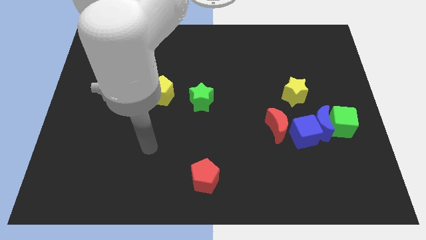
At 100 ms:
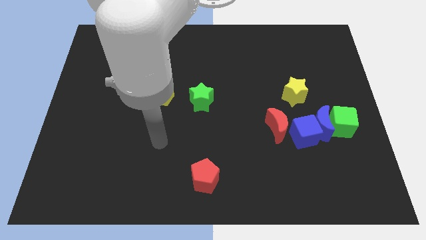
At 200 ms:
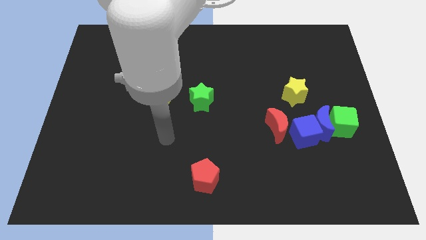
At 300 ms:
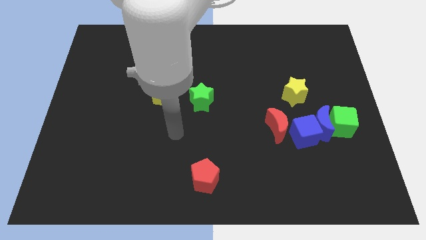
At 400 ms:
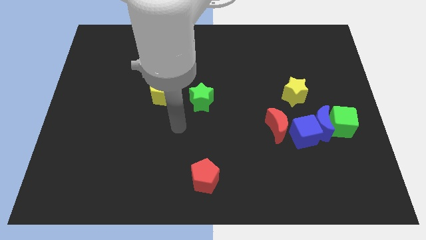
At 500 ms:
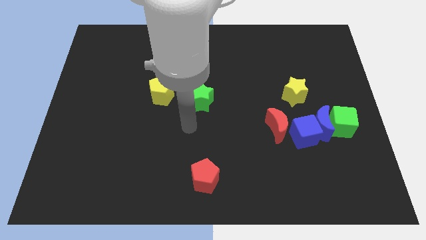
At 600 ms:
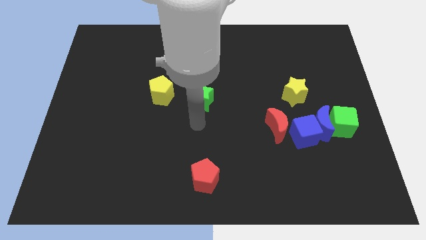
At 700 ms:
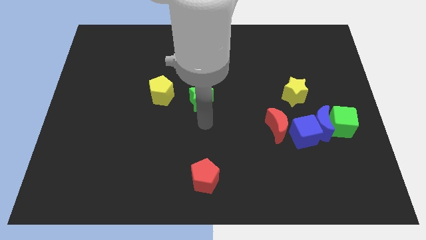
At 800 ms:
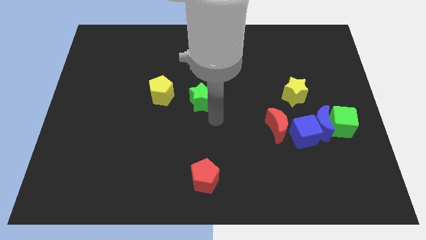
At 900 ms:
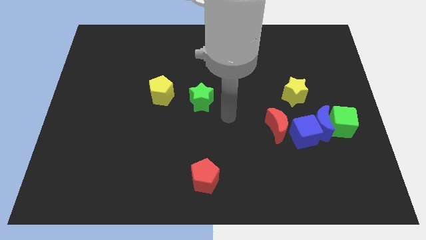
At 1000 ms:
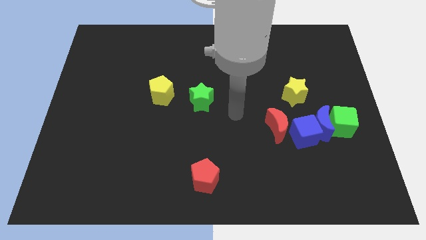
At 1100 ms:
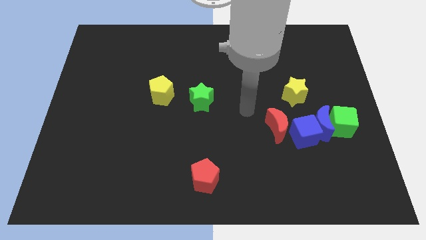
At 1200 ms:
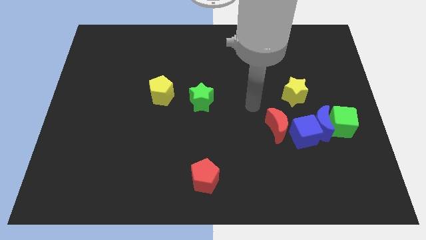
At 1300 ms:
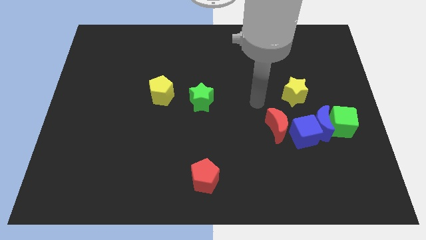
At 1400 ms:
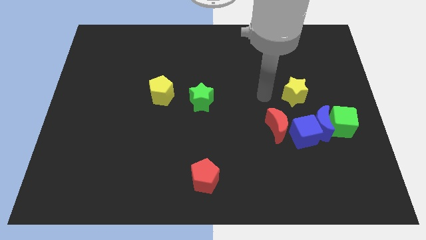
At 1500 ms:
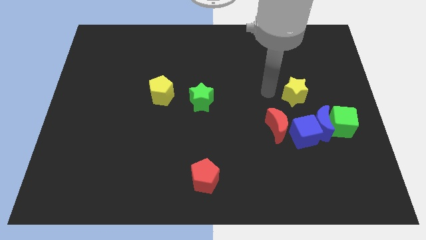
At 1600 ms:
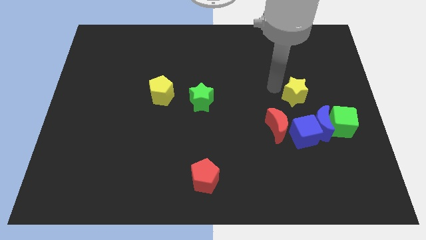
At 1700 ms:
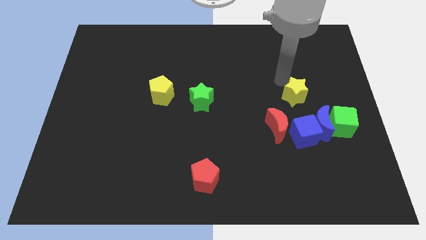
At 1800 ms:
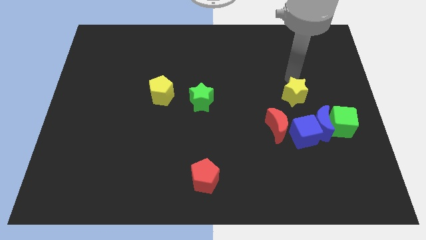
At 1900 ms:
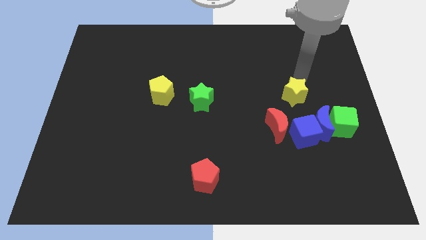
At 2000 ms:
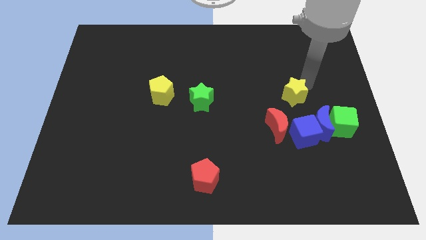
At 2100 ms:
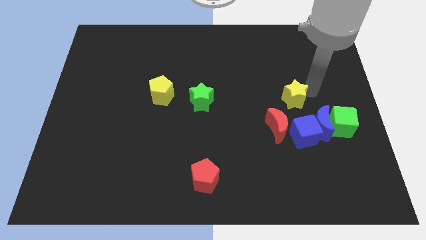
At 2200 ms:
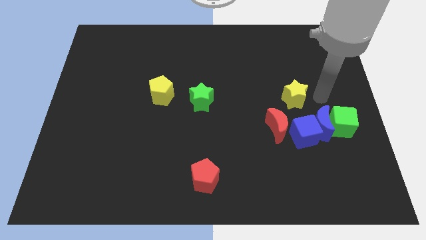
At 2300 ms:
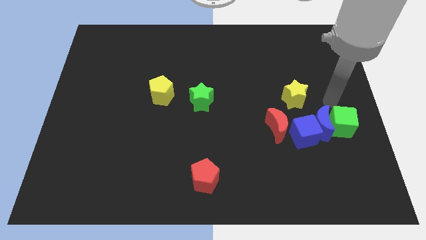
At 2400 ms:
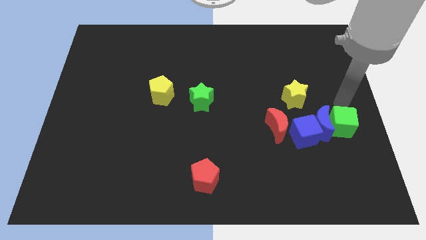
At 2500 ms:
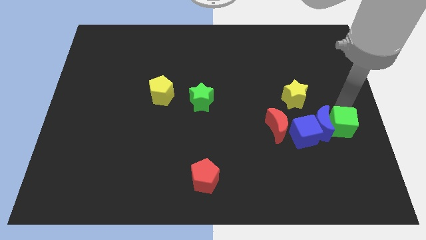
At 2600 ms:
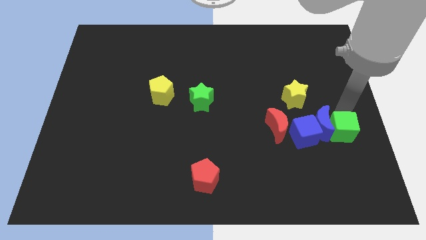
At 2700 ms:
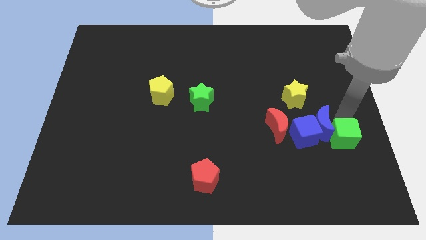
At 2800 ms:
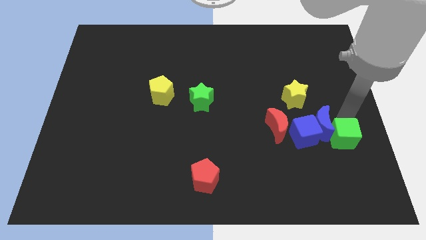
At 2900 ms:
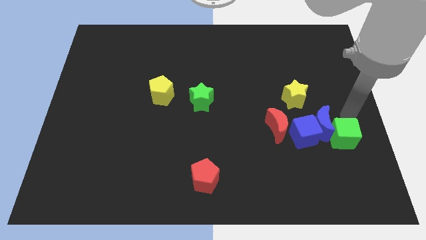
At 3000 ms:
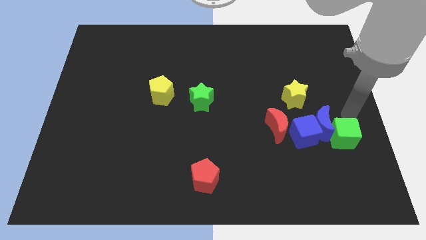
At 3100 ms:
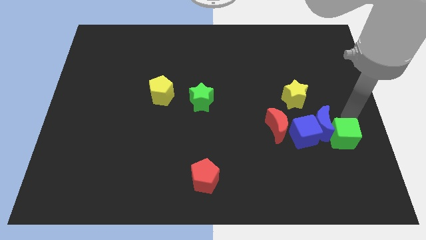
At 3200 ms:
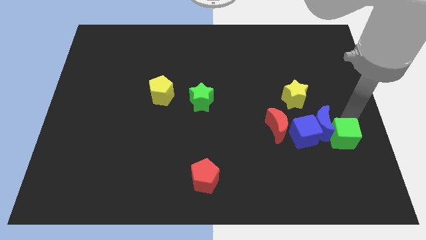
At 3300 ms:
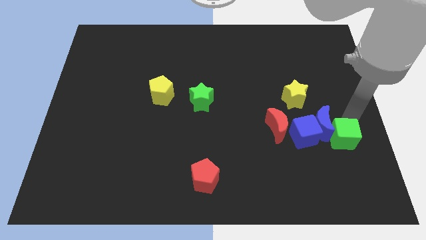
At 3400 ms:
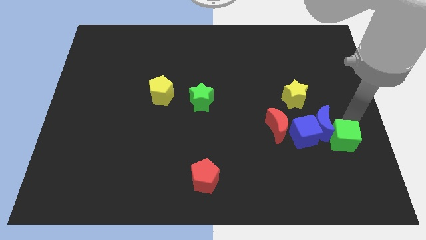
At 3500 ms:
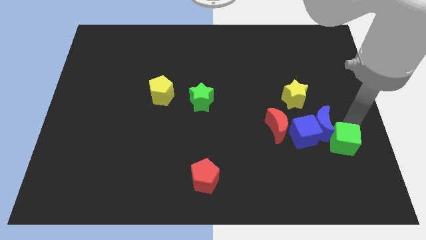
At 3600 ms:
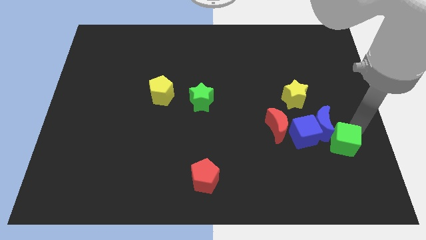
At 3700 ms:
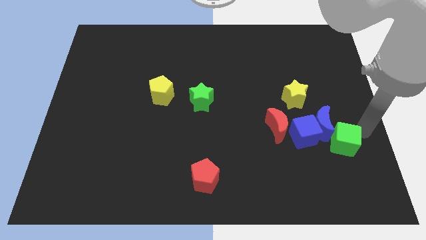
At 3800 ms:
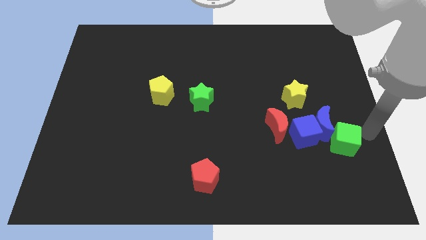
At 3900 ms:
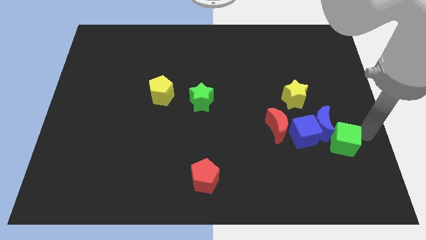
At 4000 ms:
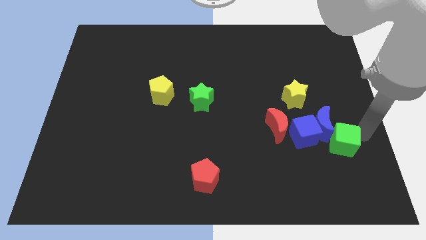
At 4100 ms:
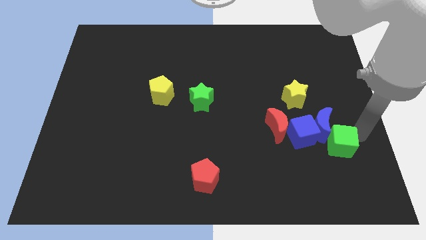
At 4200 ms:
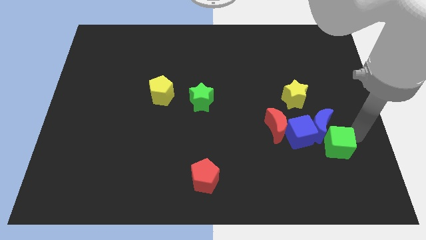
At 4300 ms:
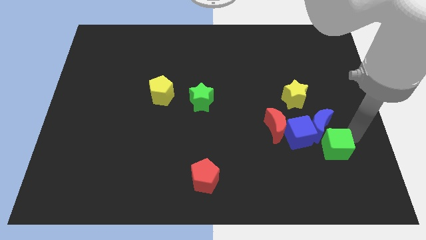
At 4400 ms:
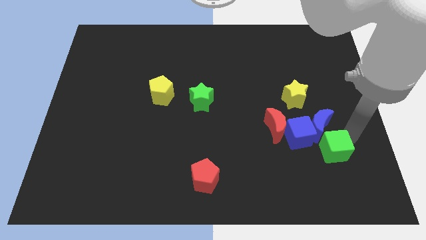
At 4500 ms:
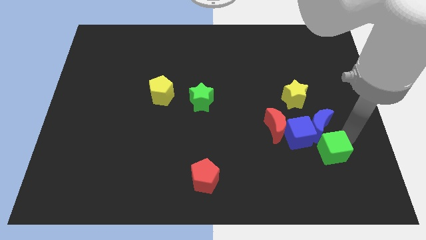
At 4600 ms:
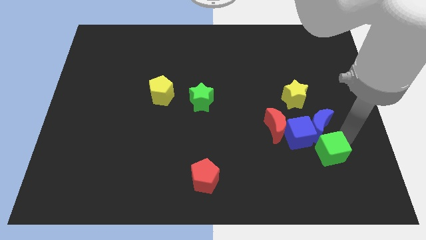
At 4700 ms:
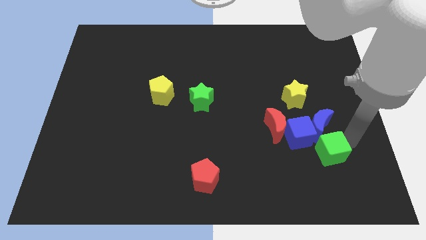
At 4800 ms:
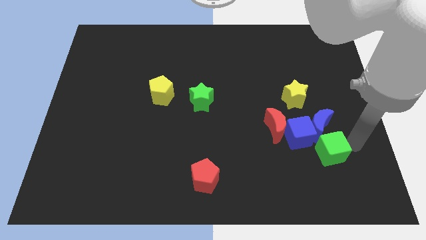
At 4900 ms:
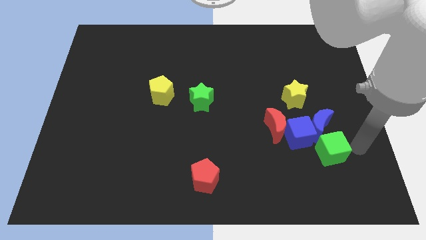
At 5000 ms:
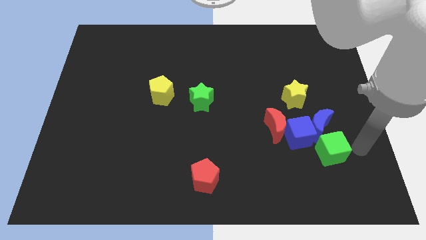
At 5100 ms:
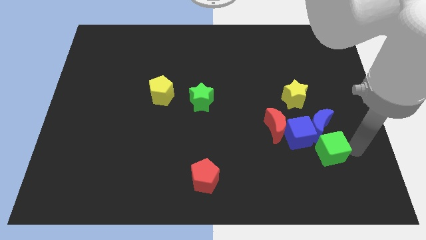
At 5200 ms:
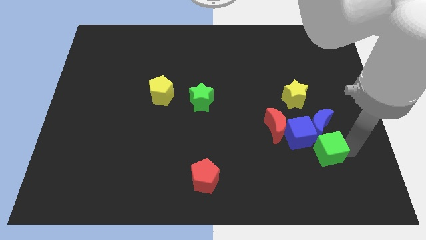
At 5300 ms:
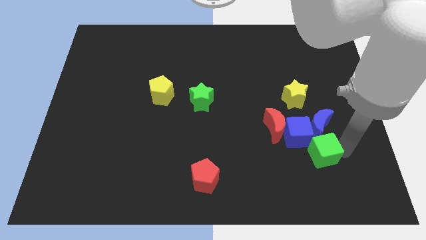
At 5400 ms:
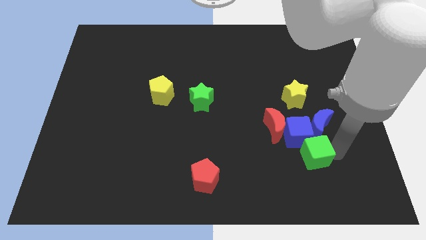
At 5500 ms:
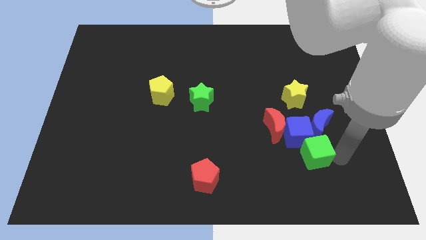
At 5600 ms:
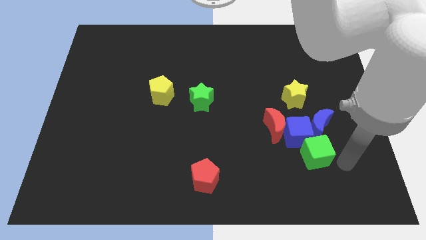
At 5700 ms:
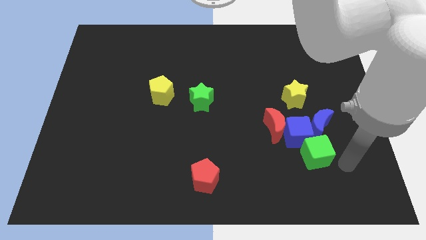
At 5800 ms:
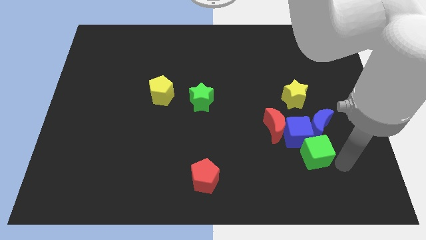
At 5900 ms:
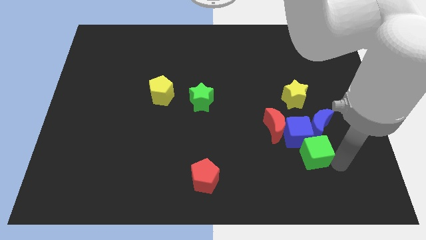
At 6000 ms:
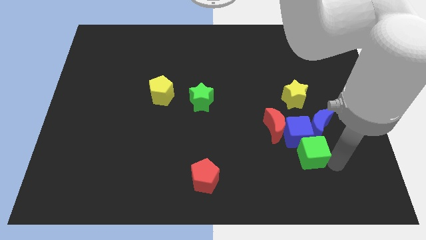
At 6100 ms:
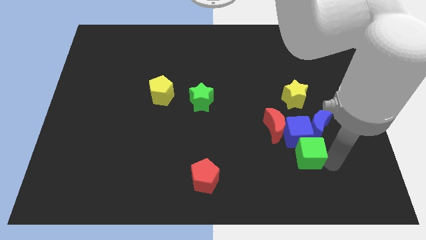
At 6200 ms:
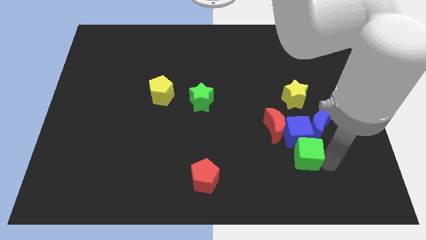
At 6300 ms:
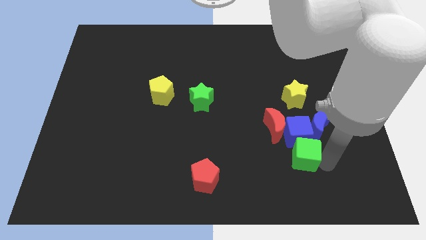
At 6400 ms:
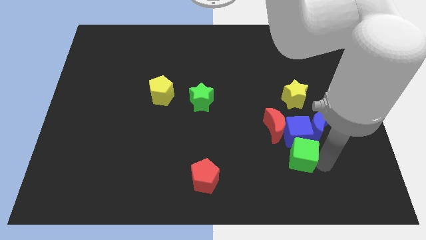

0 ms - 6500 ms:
move the green cube slightly left

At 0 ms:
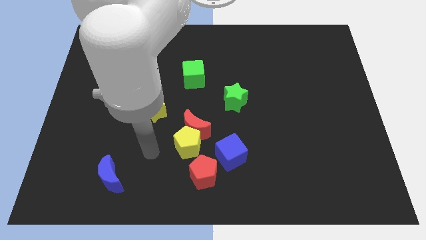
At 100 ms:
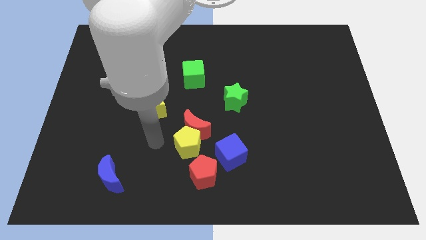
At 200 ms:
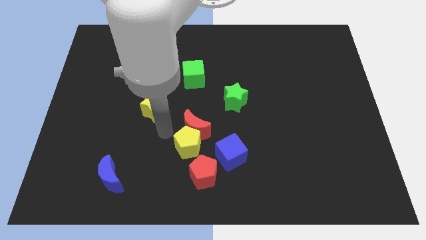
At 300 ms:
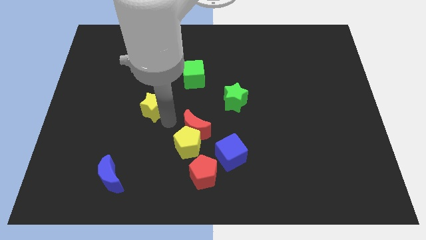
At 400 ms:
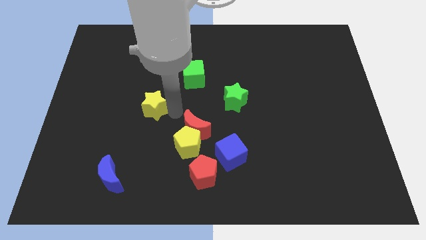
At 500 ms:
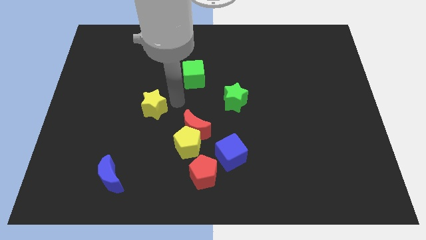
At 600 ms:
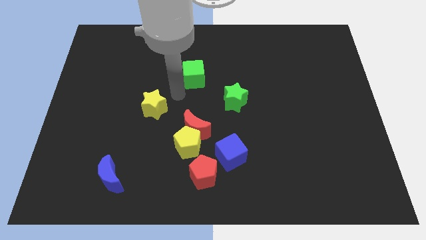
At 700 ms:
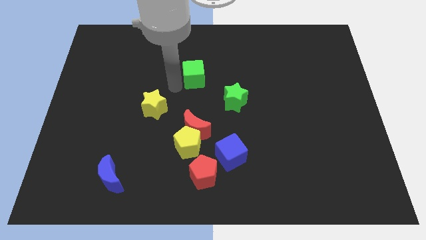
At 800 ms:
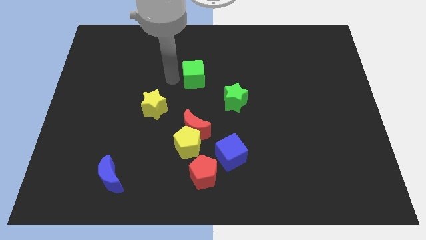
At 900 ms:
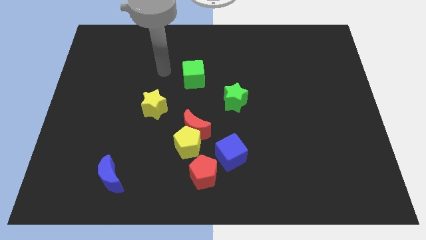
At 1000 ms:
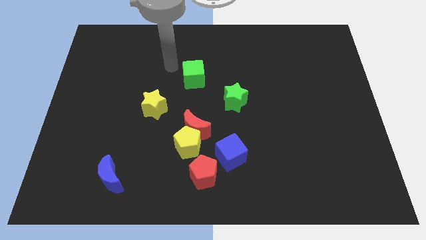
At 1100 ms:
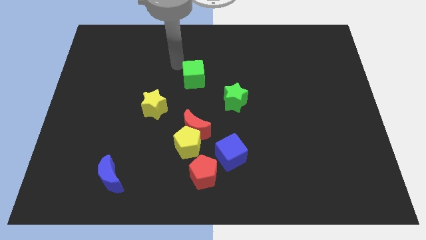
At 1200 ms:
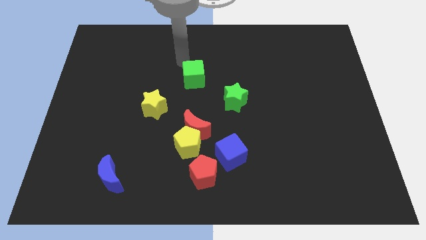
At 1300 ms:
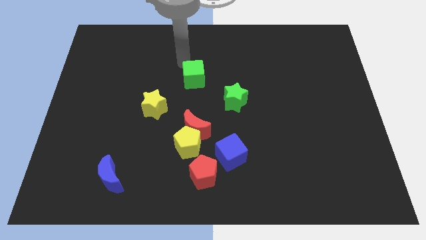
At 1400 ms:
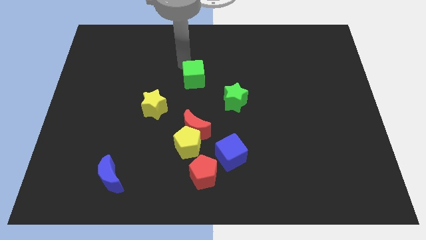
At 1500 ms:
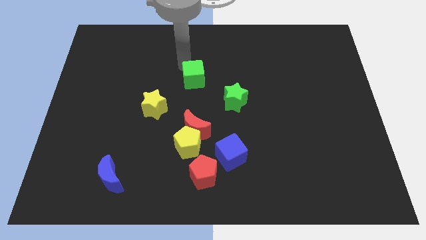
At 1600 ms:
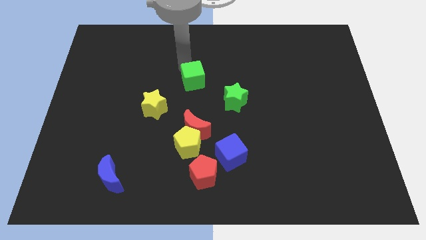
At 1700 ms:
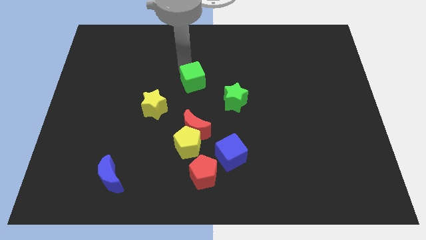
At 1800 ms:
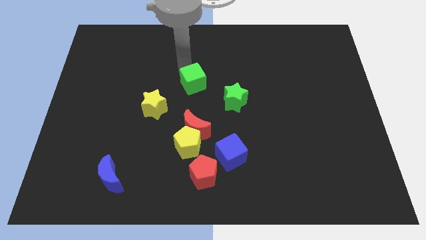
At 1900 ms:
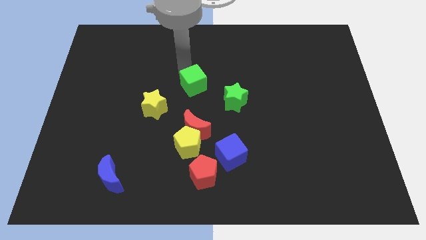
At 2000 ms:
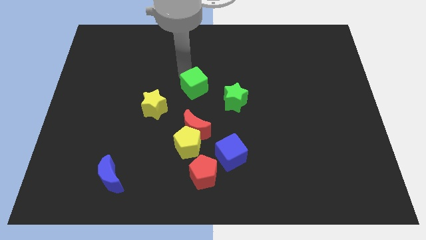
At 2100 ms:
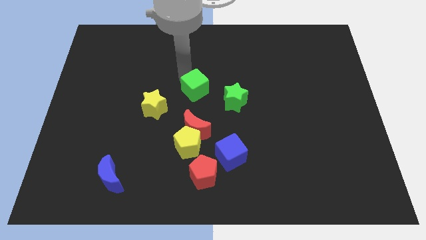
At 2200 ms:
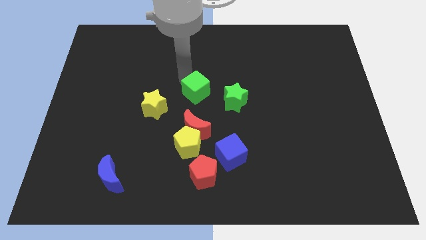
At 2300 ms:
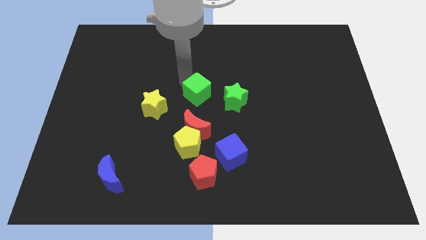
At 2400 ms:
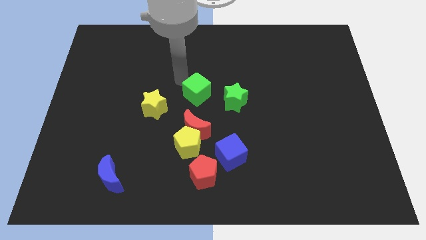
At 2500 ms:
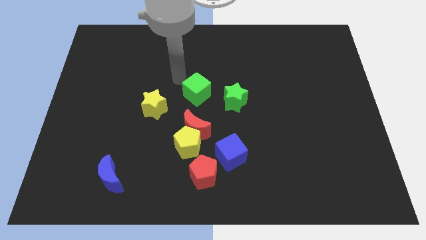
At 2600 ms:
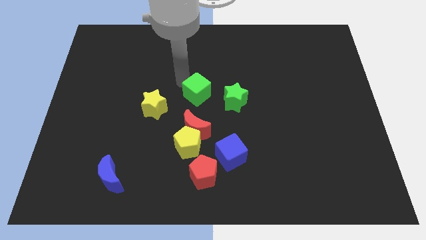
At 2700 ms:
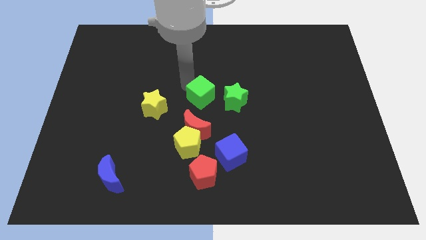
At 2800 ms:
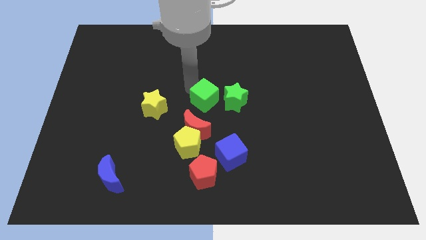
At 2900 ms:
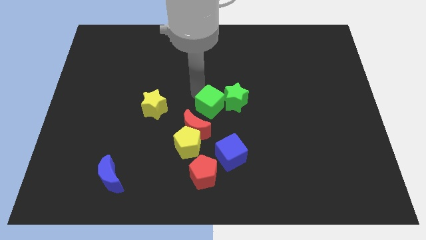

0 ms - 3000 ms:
push the green cube downwards and right a little bit
